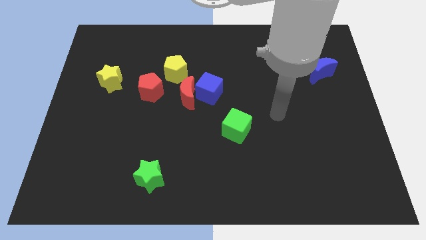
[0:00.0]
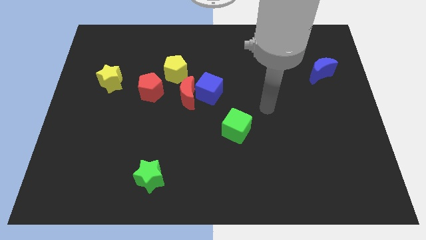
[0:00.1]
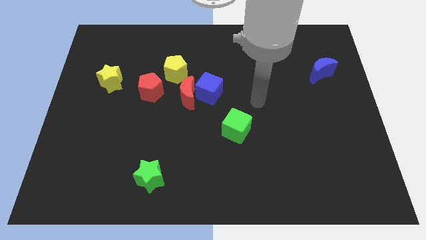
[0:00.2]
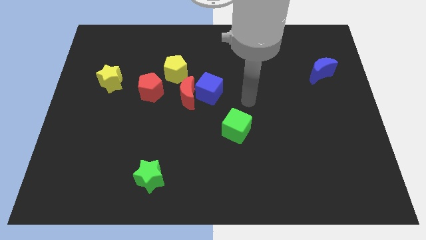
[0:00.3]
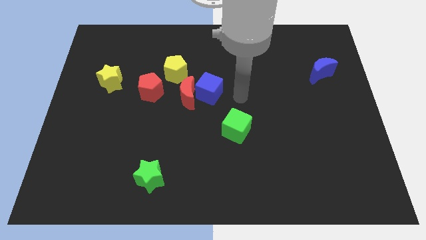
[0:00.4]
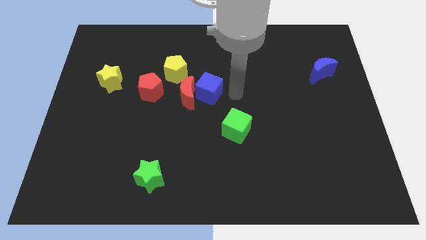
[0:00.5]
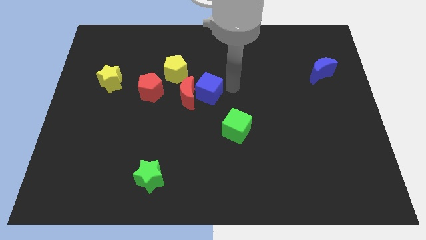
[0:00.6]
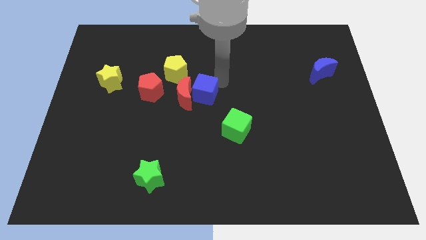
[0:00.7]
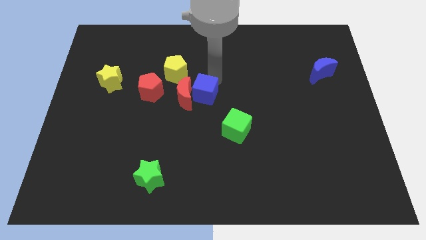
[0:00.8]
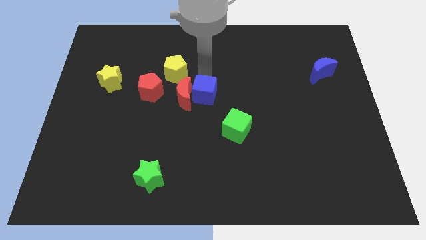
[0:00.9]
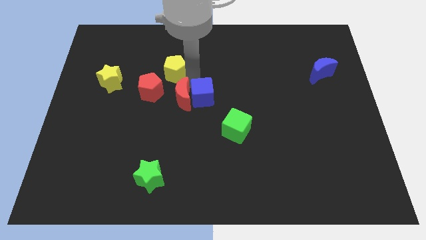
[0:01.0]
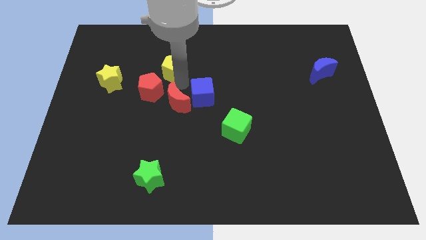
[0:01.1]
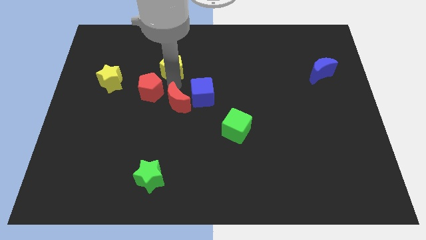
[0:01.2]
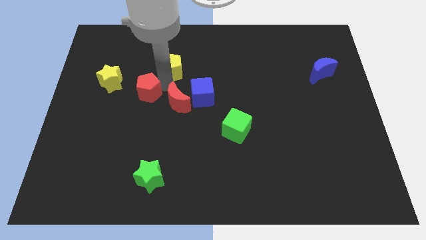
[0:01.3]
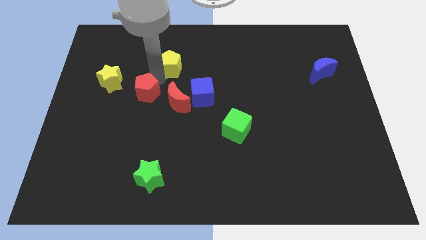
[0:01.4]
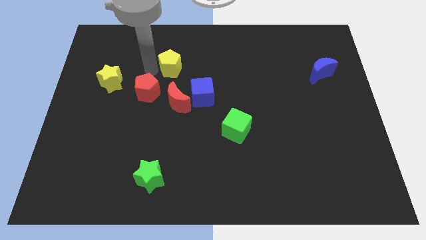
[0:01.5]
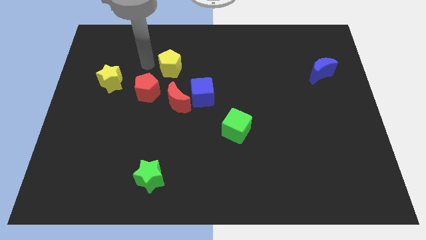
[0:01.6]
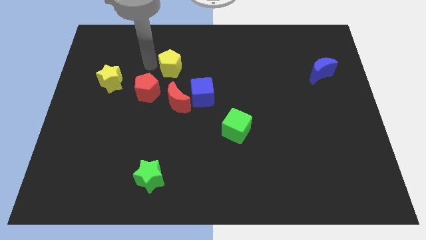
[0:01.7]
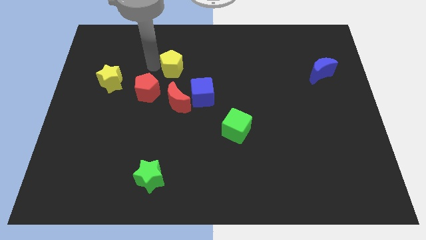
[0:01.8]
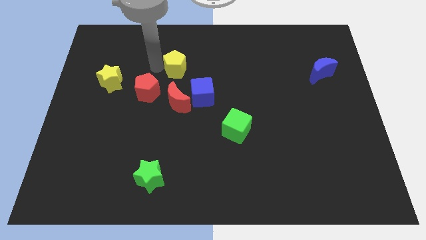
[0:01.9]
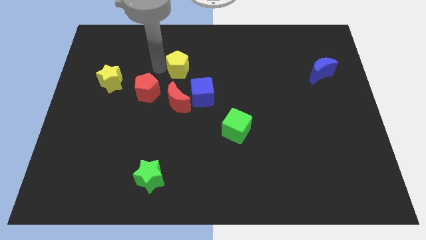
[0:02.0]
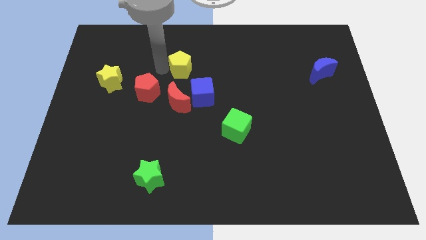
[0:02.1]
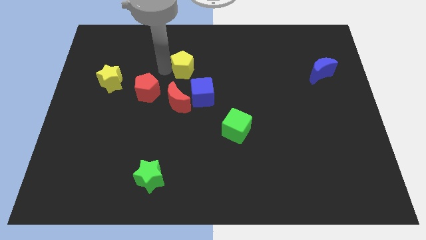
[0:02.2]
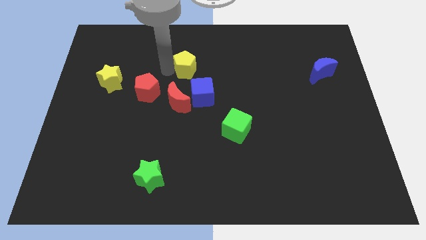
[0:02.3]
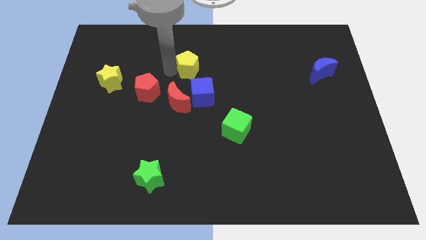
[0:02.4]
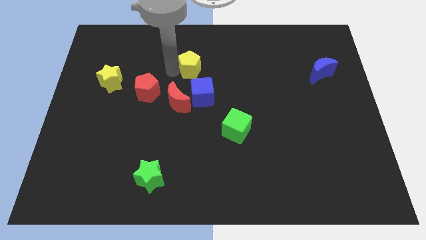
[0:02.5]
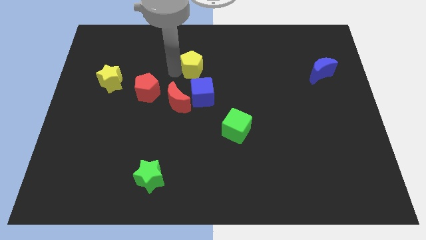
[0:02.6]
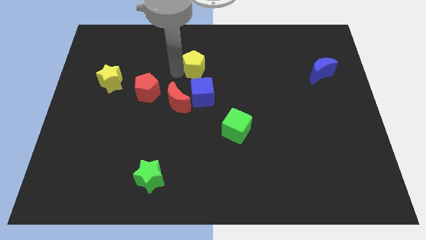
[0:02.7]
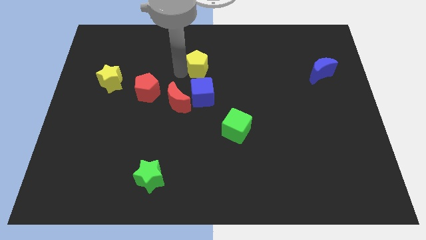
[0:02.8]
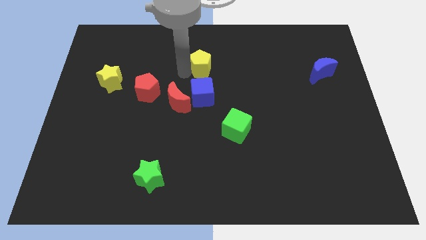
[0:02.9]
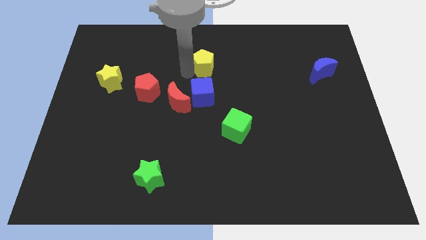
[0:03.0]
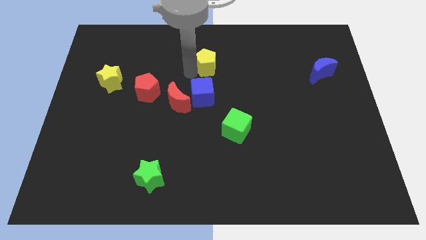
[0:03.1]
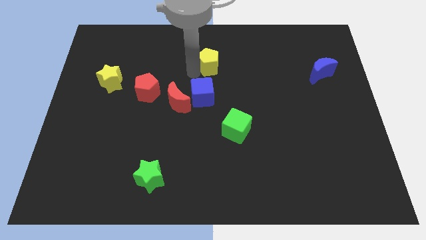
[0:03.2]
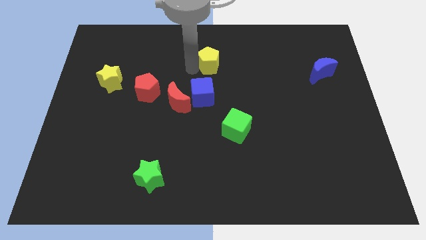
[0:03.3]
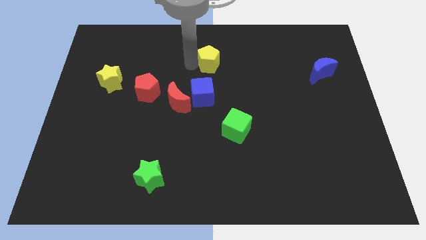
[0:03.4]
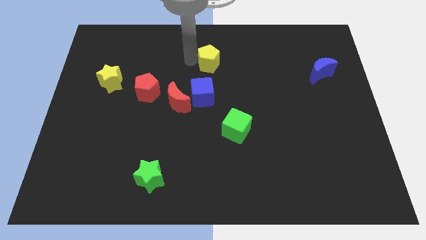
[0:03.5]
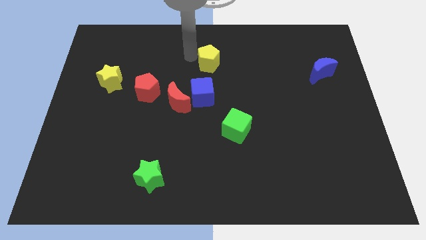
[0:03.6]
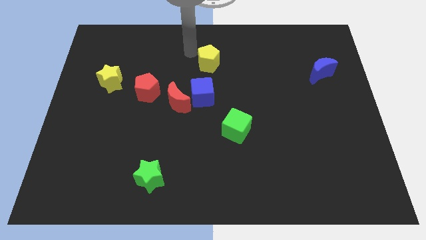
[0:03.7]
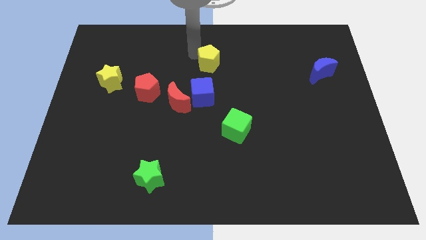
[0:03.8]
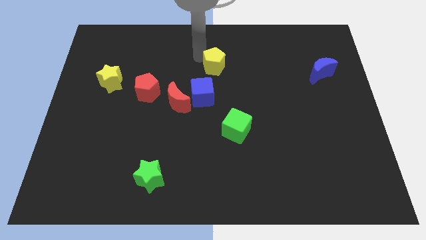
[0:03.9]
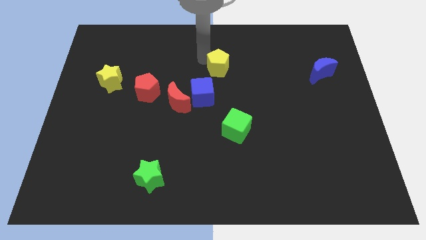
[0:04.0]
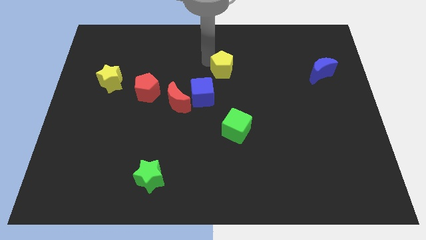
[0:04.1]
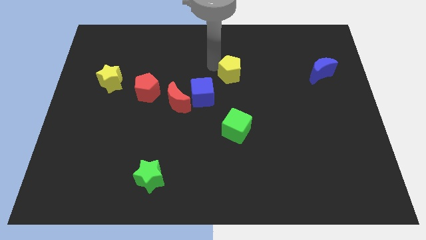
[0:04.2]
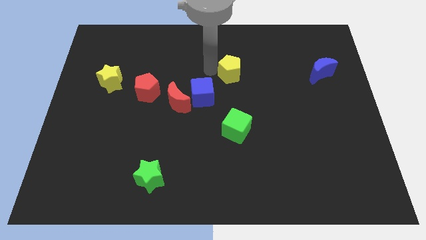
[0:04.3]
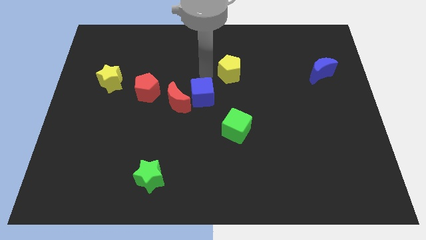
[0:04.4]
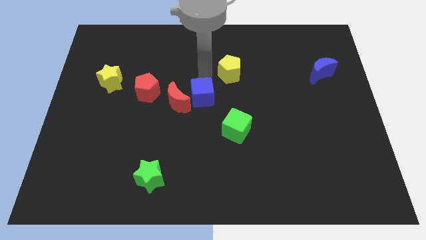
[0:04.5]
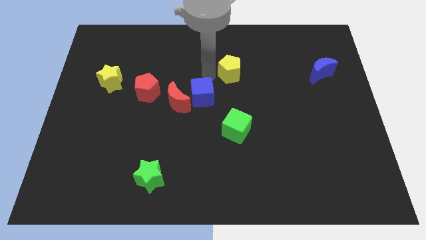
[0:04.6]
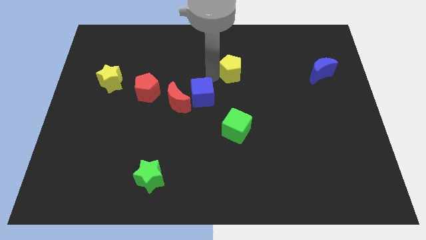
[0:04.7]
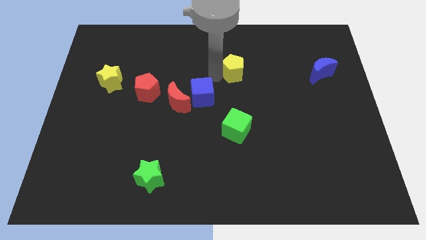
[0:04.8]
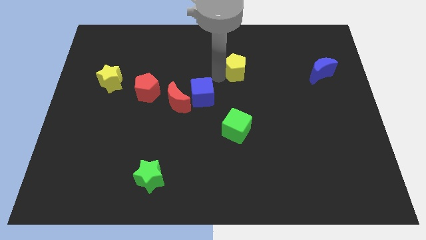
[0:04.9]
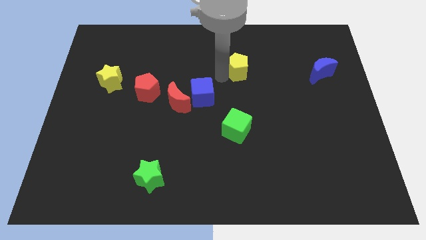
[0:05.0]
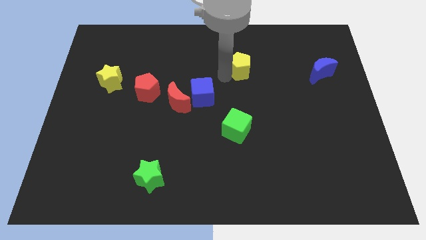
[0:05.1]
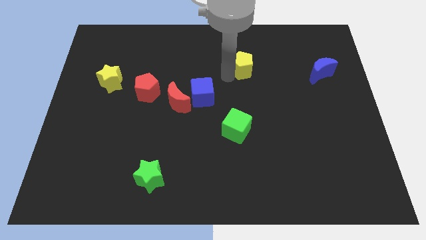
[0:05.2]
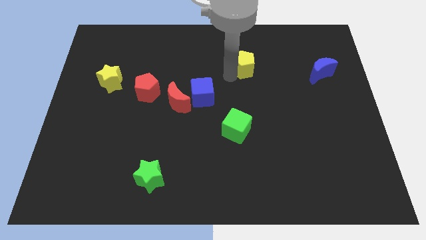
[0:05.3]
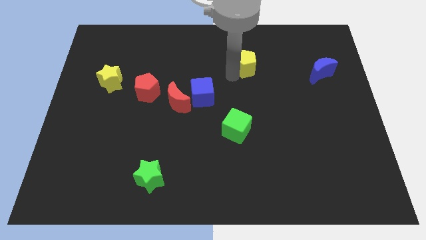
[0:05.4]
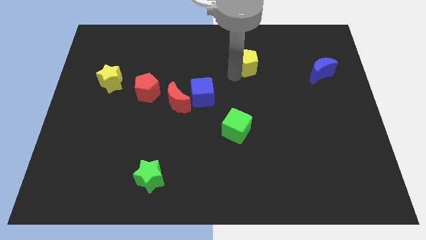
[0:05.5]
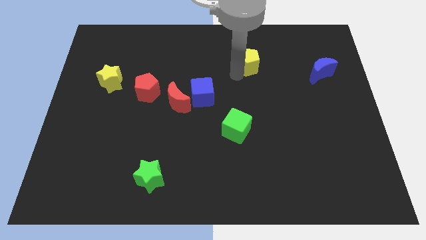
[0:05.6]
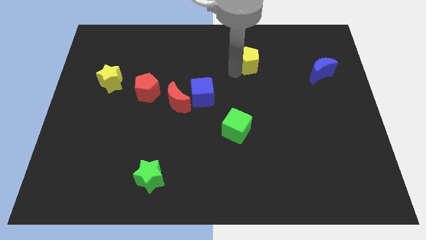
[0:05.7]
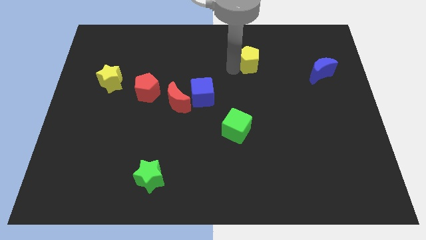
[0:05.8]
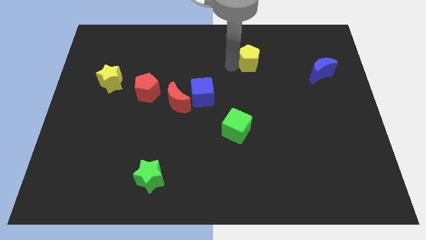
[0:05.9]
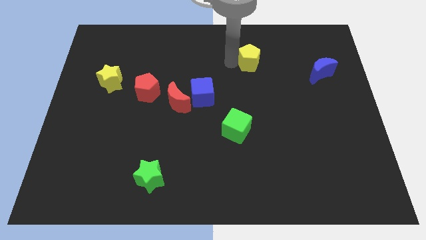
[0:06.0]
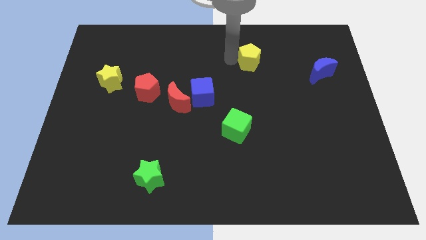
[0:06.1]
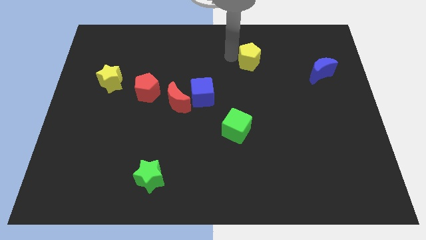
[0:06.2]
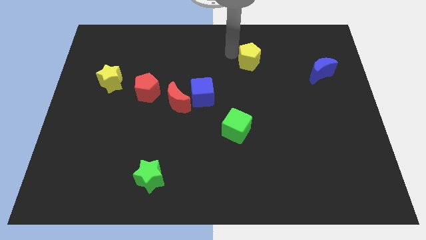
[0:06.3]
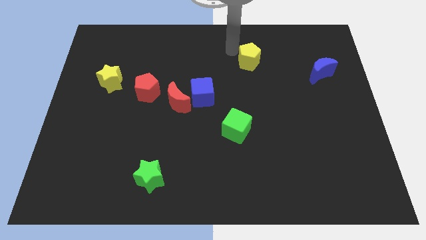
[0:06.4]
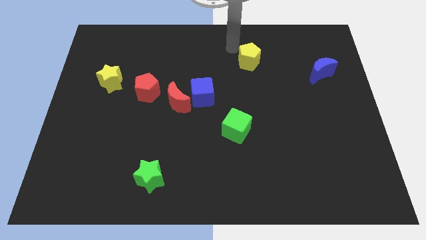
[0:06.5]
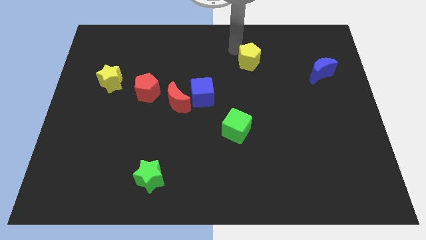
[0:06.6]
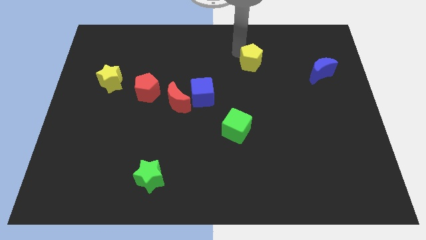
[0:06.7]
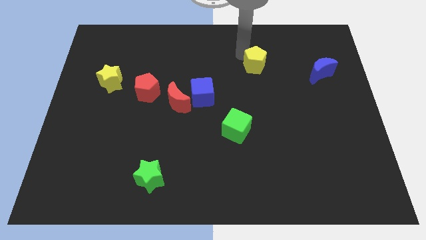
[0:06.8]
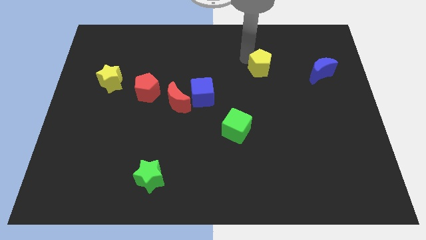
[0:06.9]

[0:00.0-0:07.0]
push the yellow pentagon to the left of the blue moon

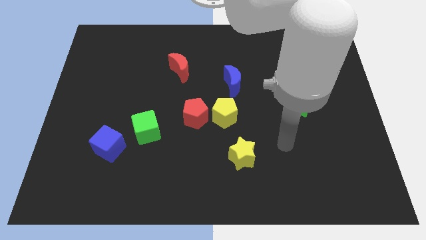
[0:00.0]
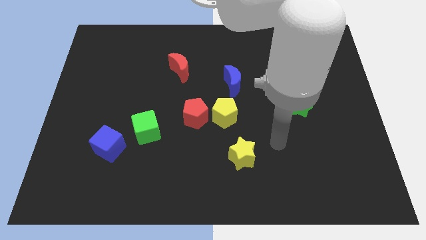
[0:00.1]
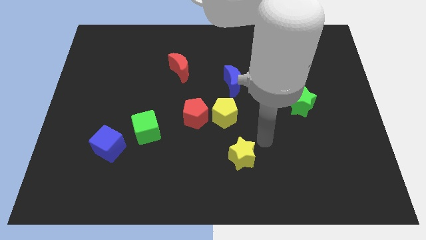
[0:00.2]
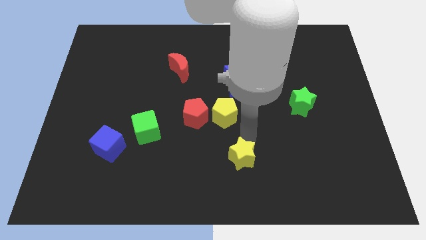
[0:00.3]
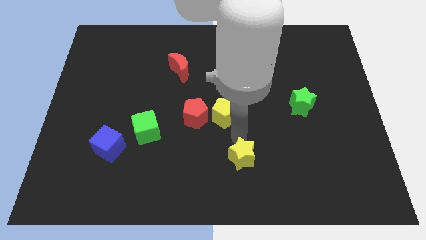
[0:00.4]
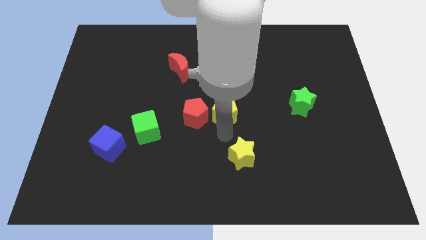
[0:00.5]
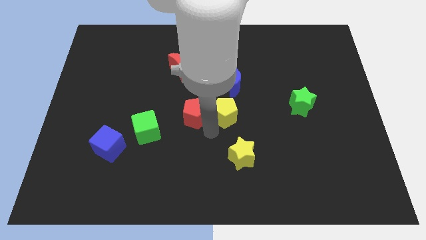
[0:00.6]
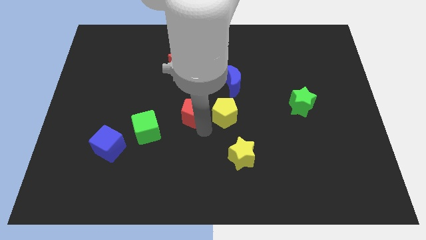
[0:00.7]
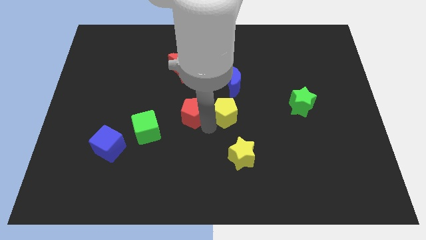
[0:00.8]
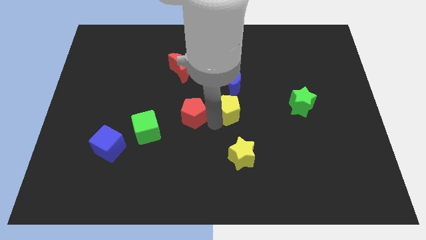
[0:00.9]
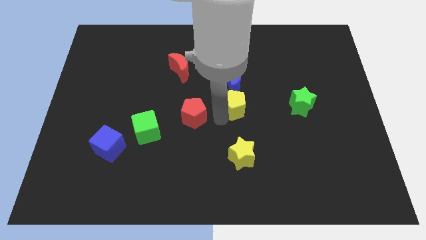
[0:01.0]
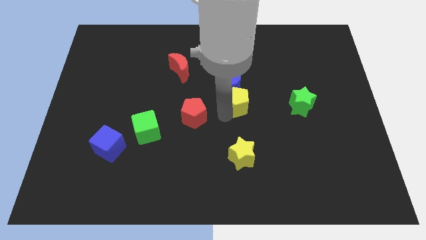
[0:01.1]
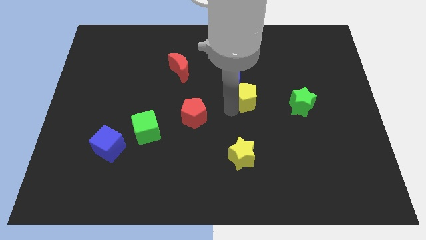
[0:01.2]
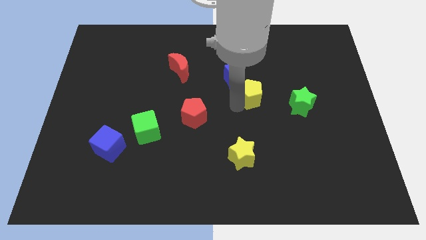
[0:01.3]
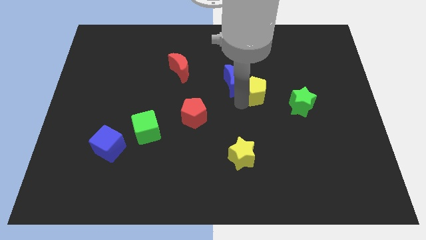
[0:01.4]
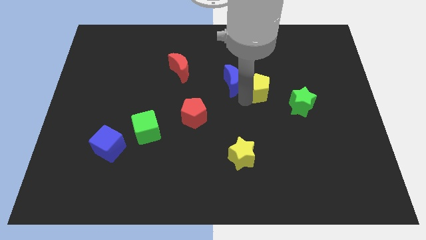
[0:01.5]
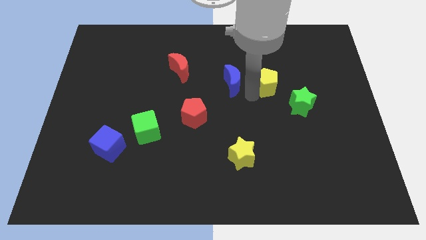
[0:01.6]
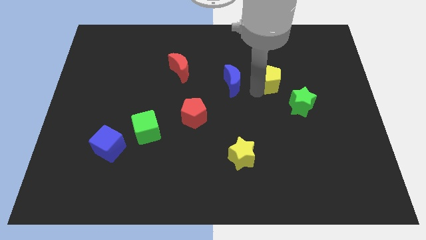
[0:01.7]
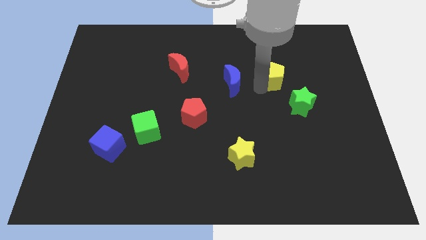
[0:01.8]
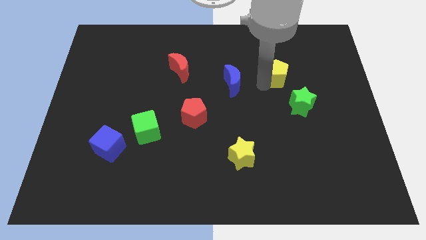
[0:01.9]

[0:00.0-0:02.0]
push the yellow pentagon to the top side of the green star
